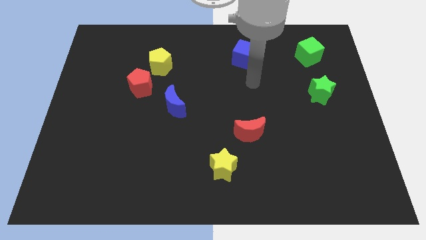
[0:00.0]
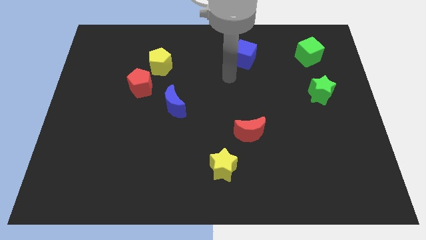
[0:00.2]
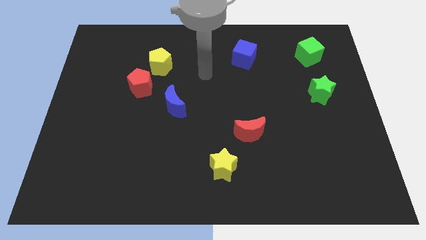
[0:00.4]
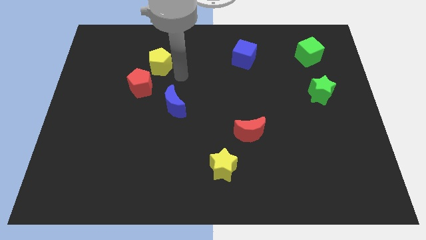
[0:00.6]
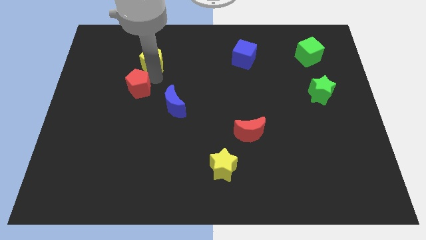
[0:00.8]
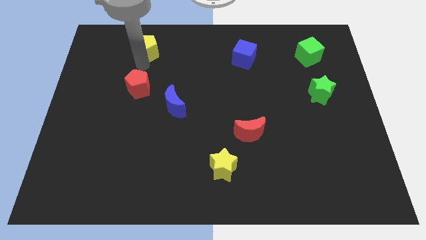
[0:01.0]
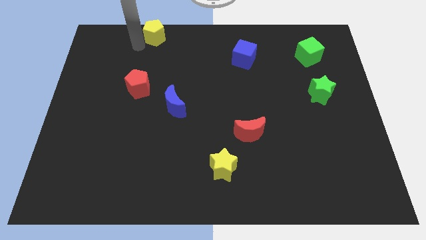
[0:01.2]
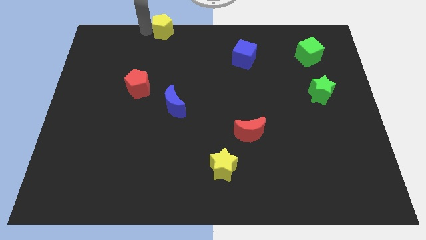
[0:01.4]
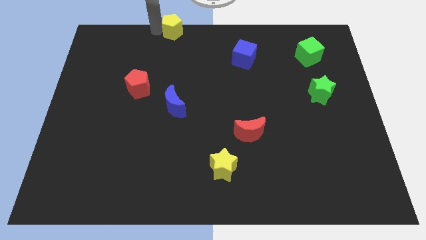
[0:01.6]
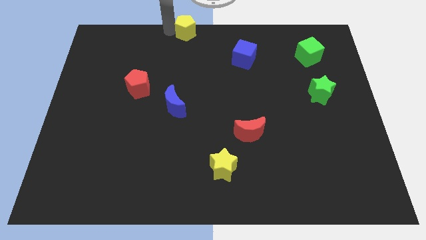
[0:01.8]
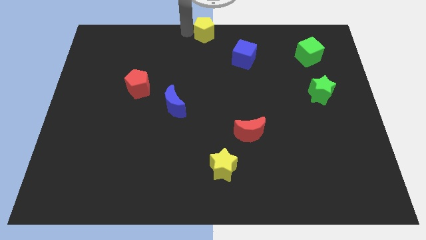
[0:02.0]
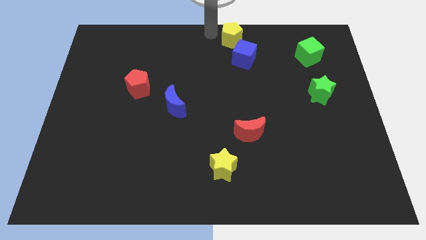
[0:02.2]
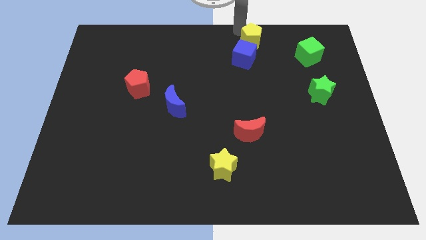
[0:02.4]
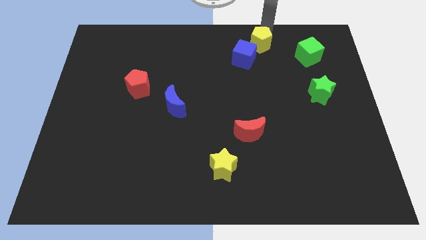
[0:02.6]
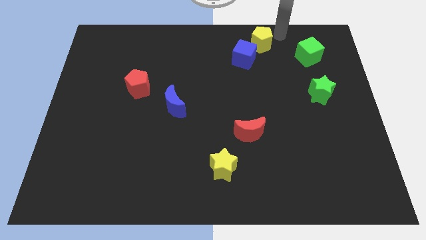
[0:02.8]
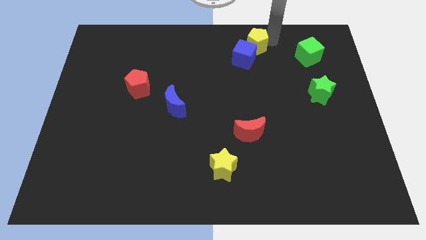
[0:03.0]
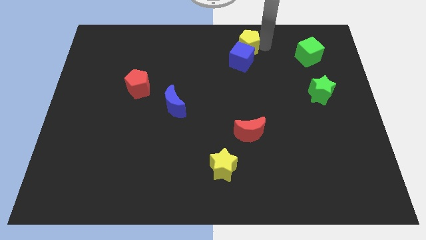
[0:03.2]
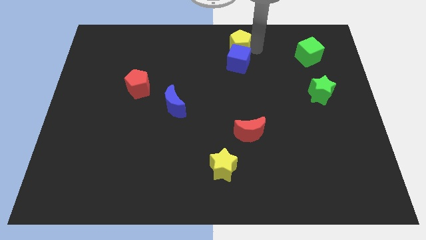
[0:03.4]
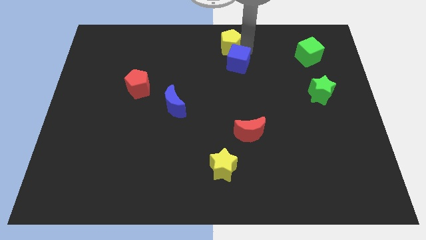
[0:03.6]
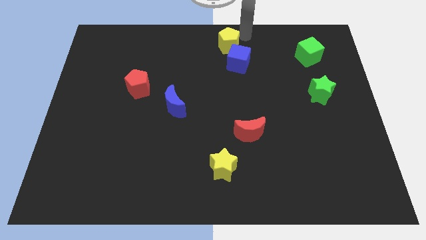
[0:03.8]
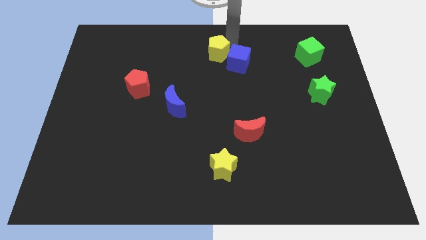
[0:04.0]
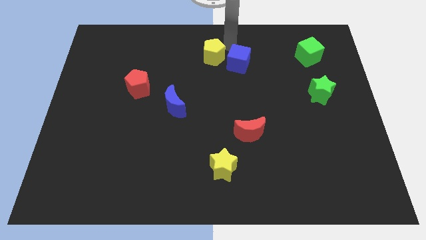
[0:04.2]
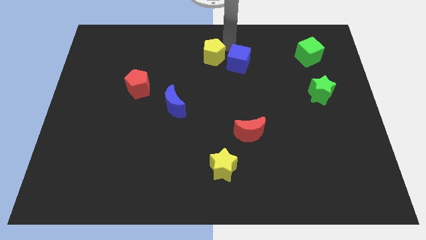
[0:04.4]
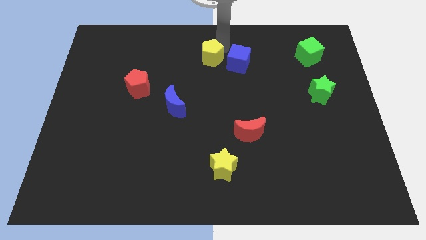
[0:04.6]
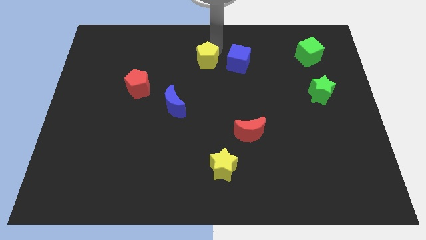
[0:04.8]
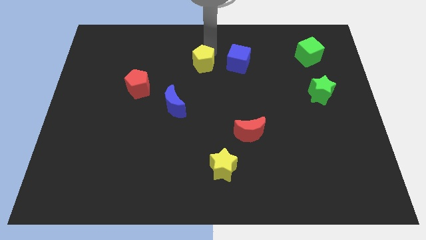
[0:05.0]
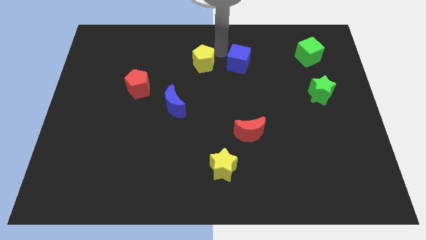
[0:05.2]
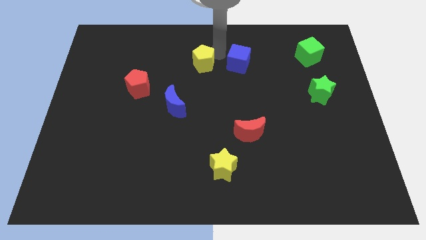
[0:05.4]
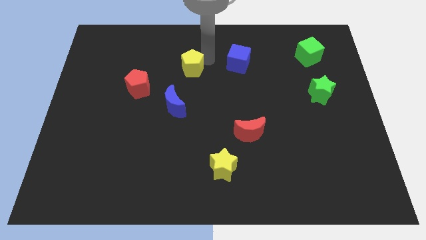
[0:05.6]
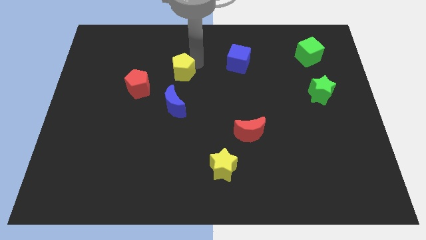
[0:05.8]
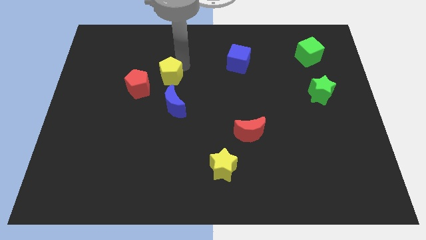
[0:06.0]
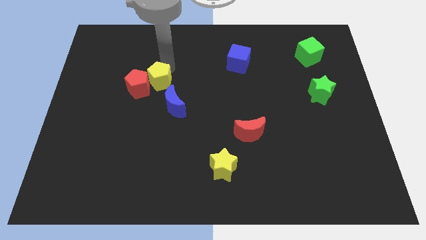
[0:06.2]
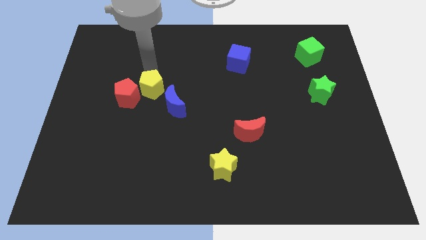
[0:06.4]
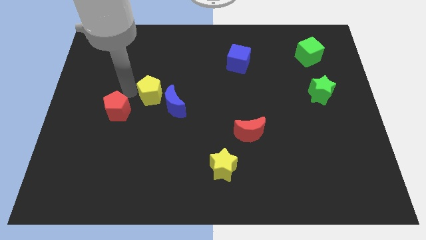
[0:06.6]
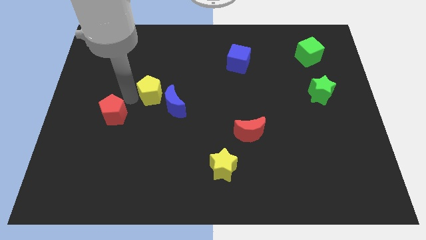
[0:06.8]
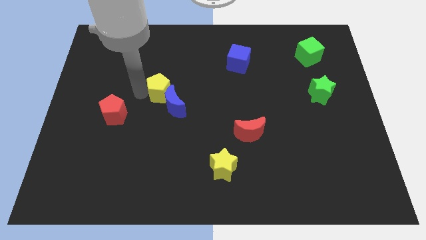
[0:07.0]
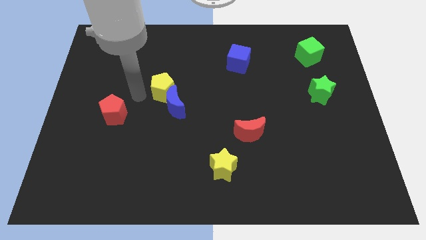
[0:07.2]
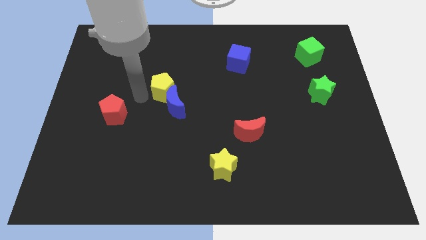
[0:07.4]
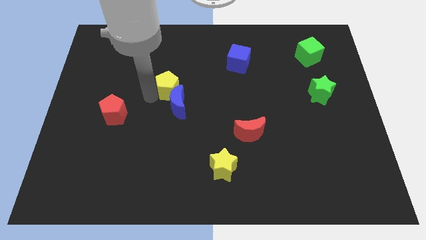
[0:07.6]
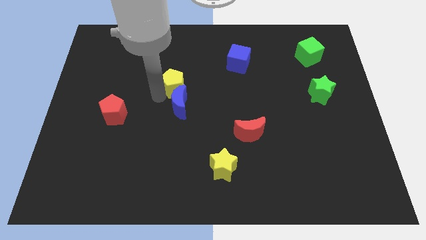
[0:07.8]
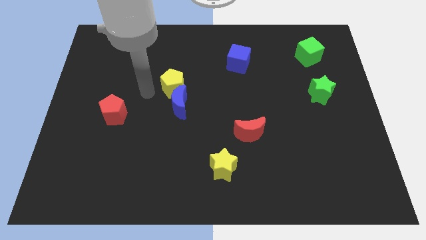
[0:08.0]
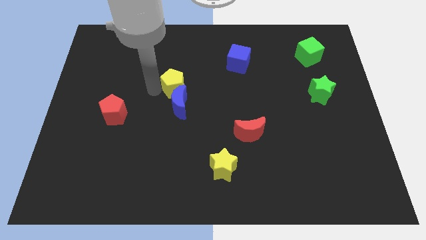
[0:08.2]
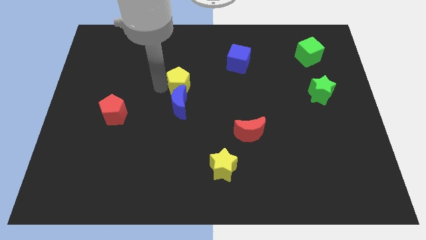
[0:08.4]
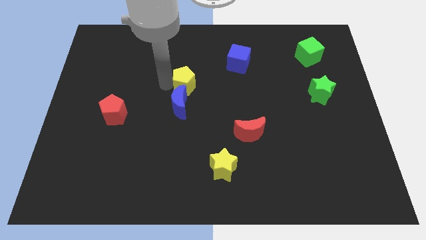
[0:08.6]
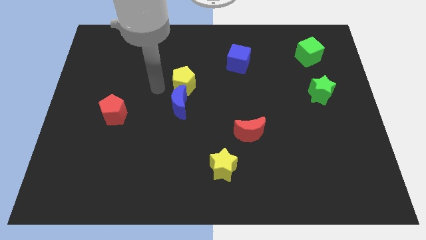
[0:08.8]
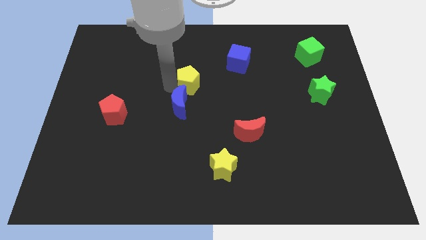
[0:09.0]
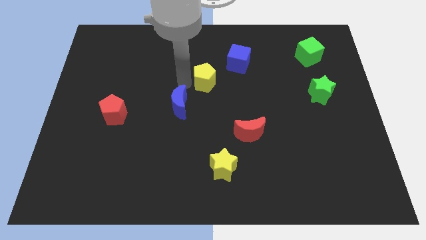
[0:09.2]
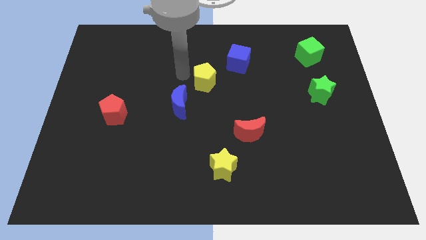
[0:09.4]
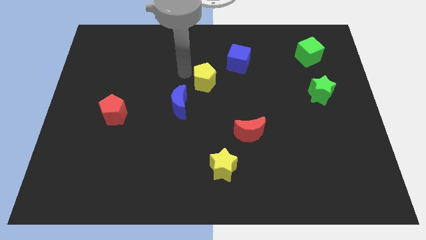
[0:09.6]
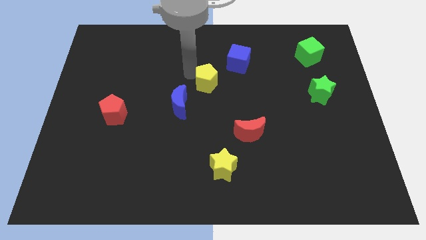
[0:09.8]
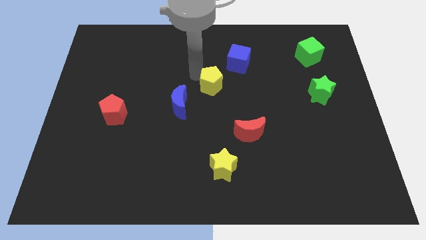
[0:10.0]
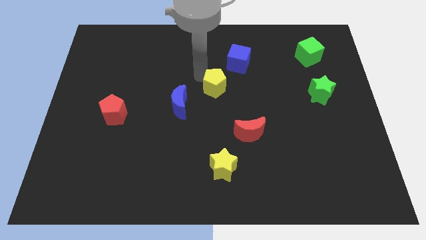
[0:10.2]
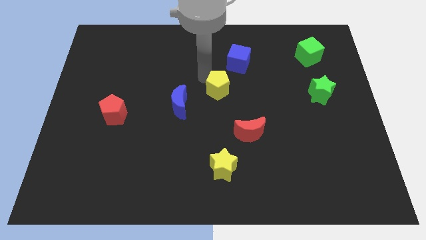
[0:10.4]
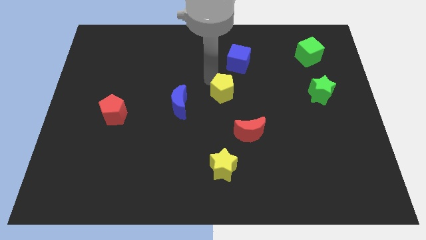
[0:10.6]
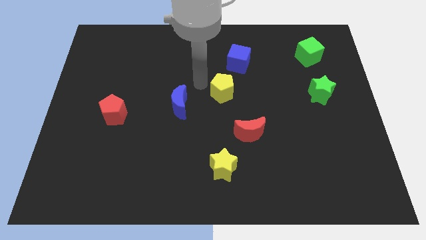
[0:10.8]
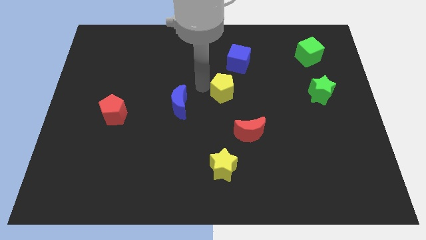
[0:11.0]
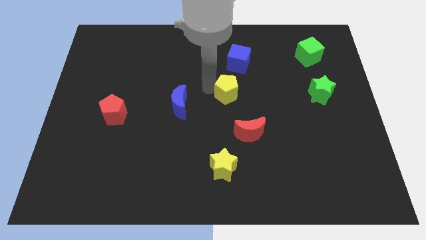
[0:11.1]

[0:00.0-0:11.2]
slide the yellow pentagon above the red moon

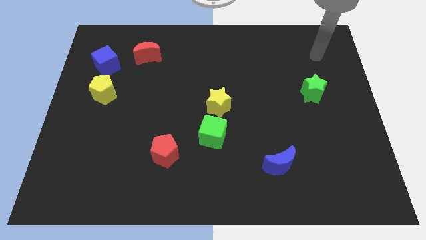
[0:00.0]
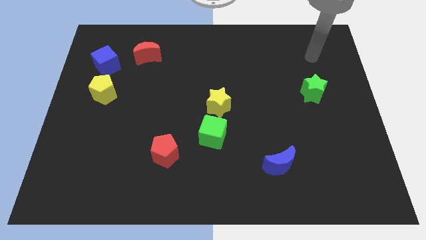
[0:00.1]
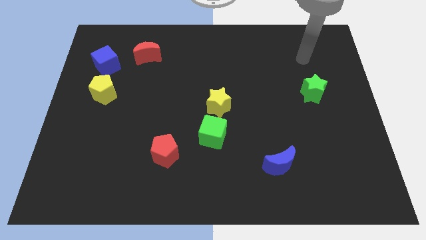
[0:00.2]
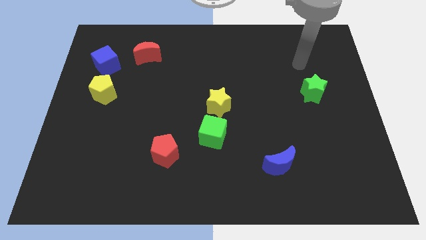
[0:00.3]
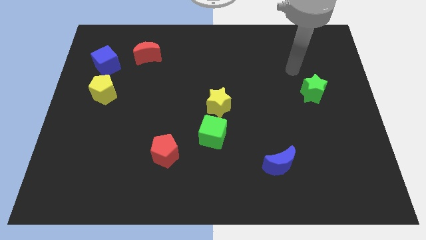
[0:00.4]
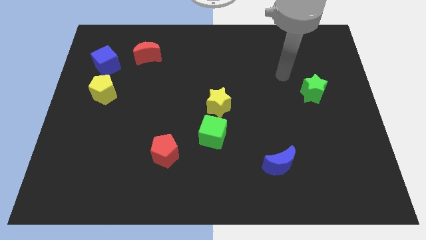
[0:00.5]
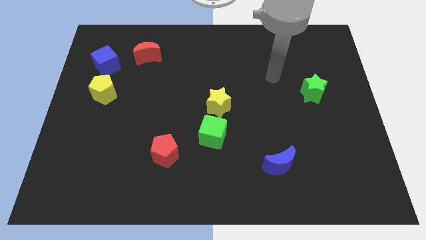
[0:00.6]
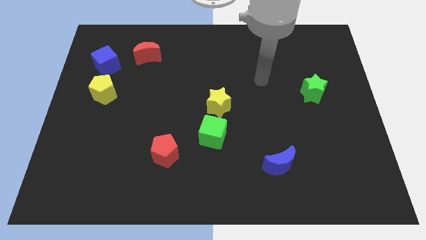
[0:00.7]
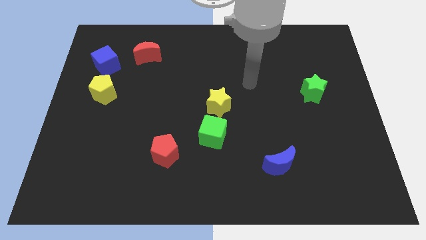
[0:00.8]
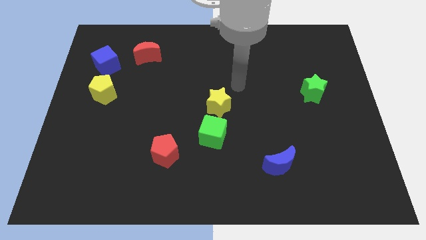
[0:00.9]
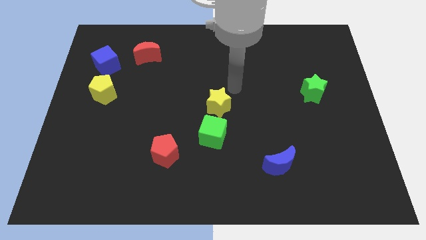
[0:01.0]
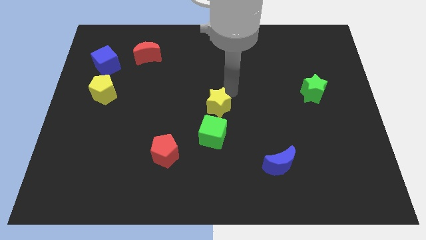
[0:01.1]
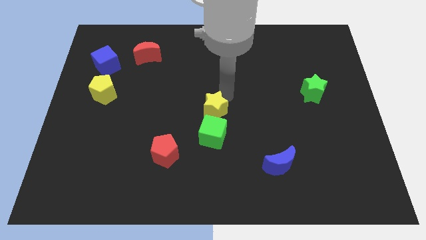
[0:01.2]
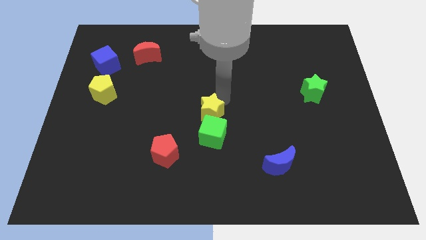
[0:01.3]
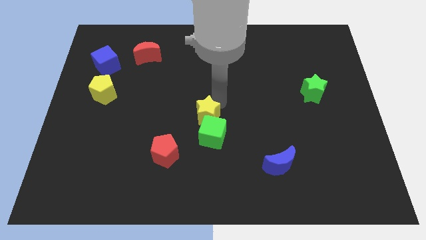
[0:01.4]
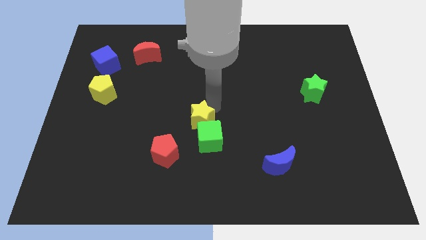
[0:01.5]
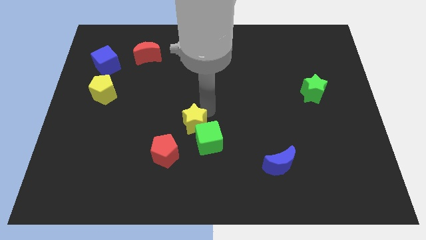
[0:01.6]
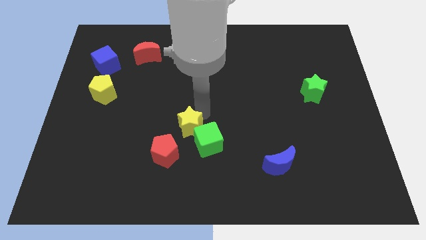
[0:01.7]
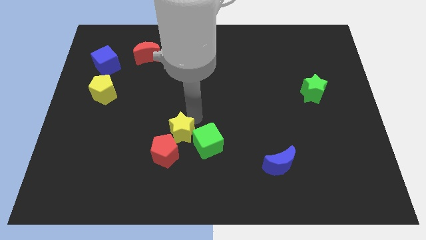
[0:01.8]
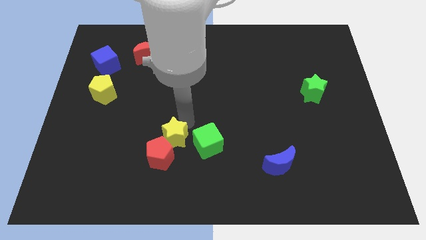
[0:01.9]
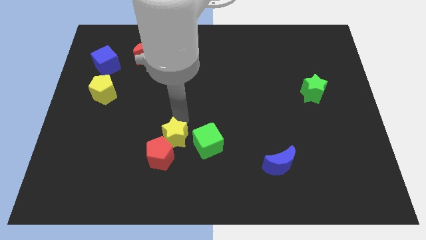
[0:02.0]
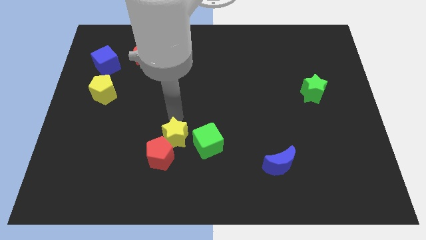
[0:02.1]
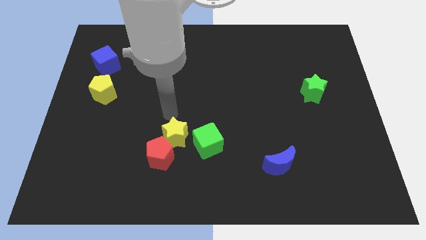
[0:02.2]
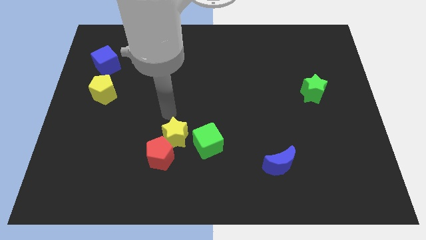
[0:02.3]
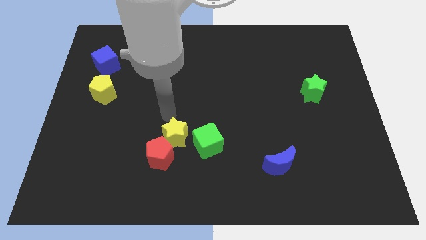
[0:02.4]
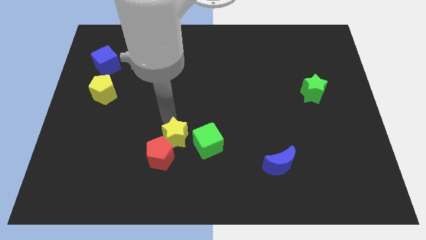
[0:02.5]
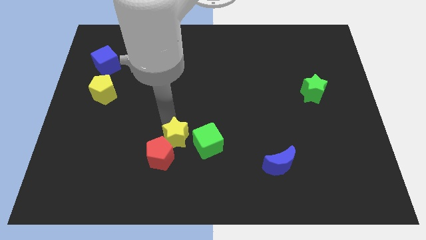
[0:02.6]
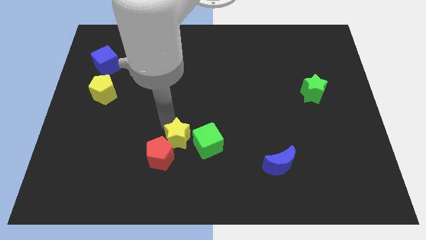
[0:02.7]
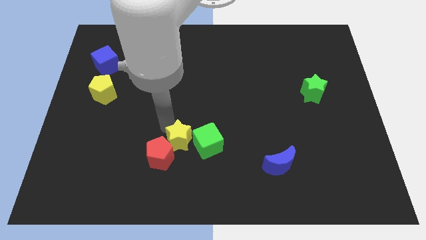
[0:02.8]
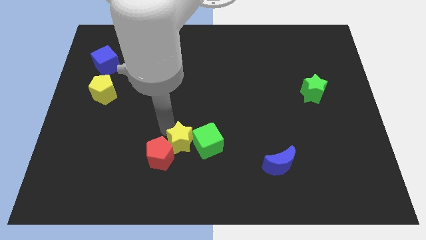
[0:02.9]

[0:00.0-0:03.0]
slide the yellow star to the bottom left side of the green cube
